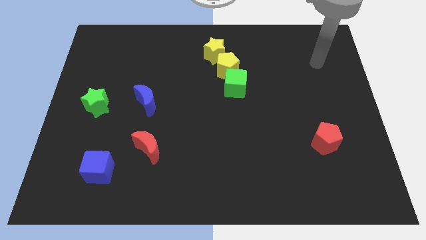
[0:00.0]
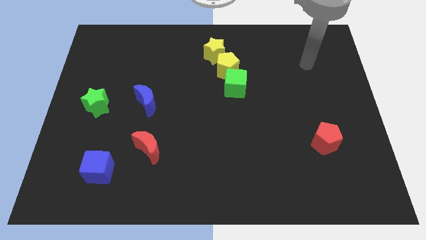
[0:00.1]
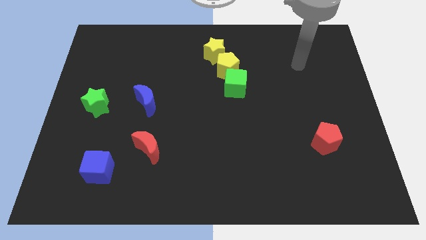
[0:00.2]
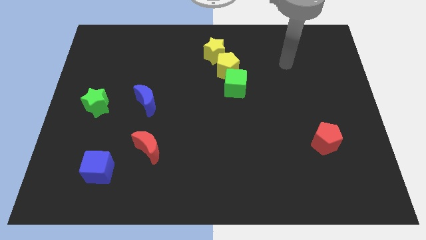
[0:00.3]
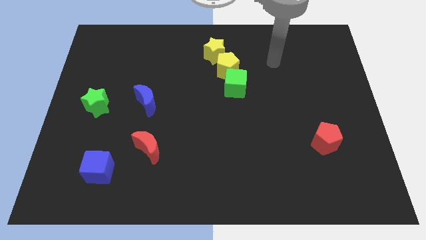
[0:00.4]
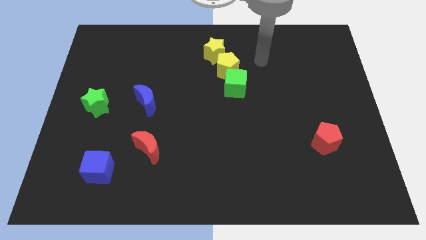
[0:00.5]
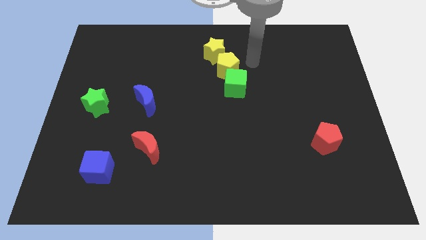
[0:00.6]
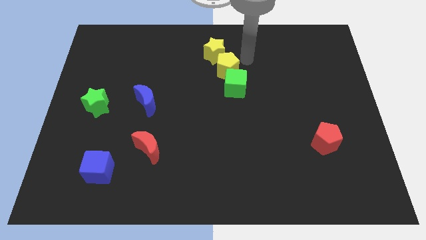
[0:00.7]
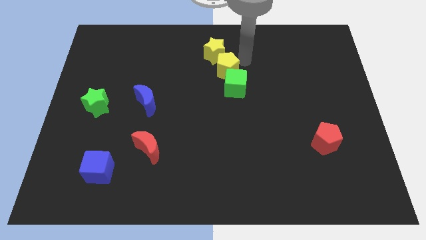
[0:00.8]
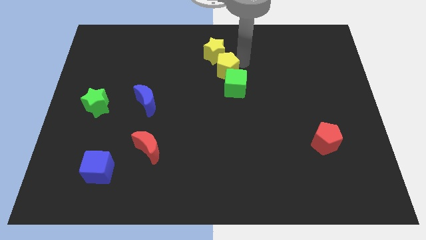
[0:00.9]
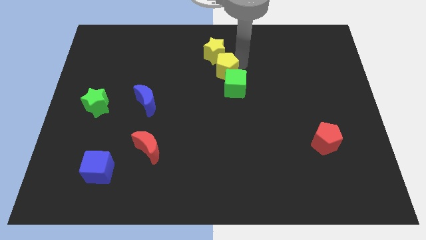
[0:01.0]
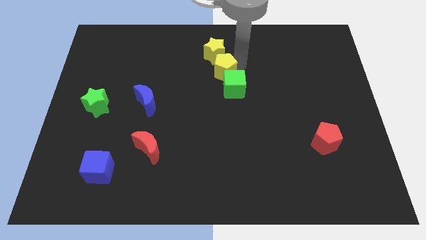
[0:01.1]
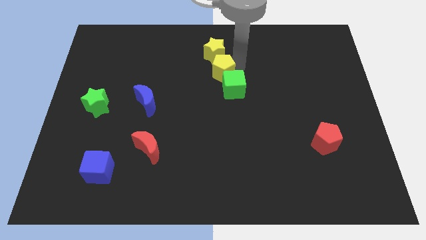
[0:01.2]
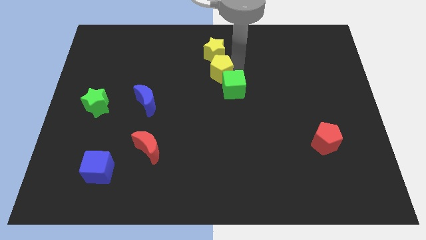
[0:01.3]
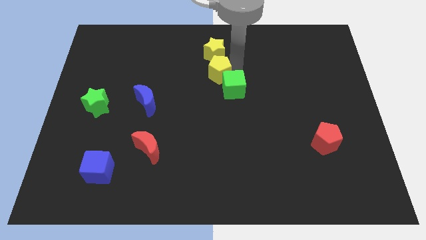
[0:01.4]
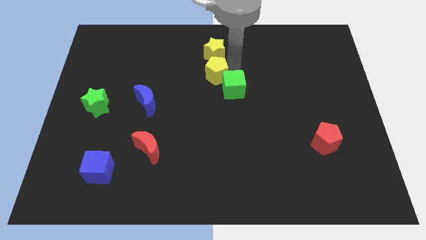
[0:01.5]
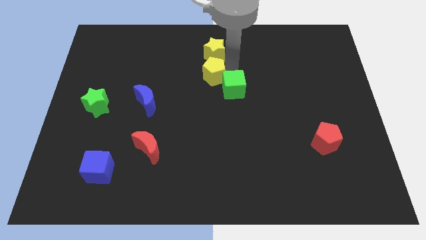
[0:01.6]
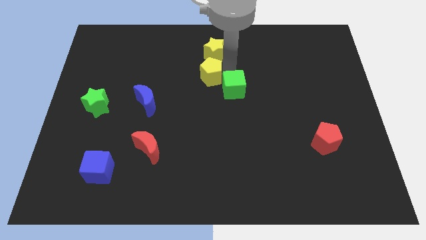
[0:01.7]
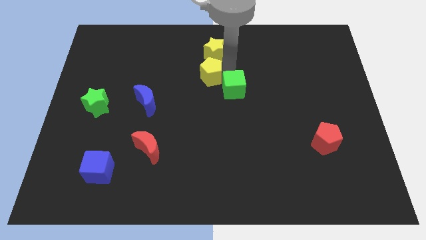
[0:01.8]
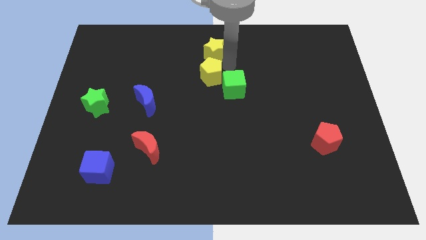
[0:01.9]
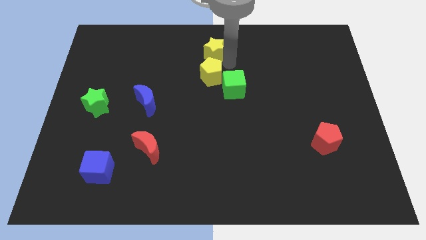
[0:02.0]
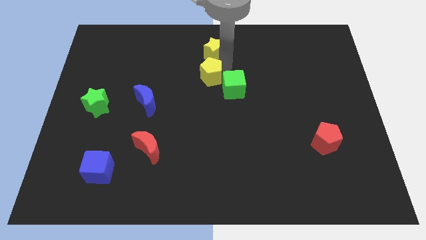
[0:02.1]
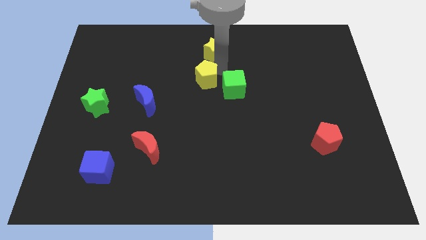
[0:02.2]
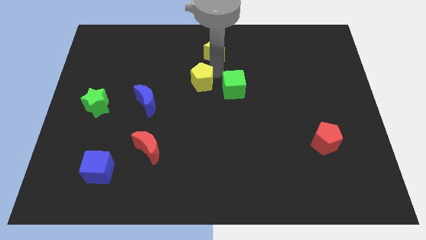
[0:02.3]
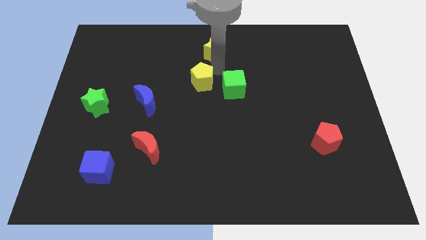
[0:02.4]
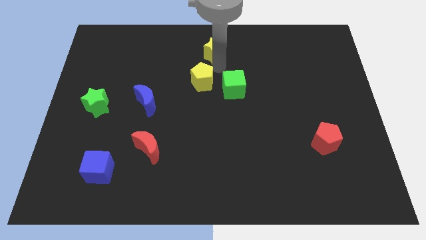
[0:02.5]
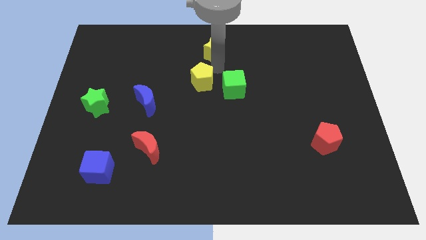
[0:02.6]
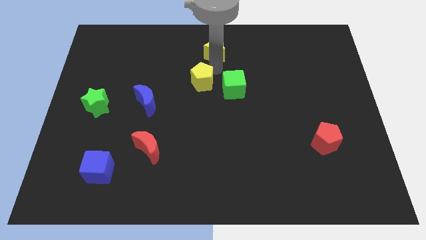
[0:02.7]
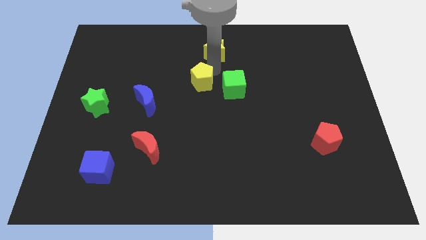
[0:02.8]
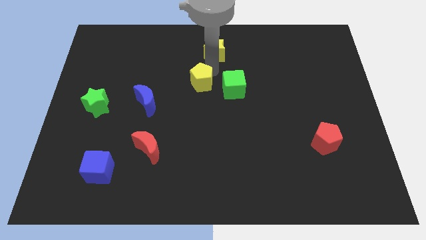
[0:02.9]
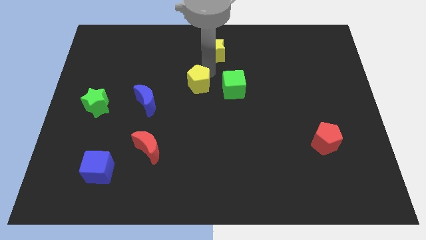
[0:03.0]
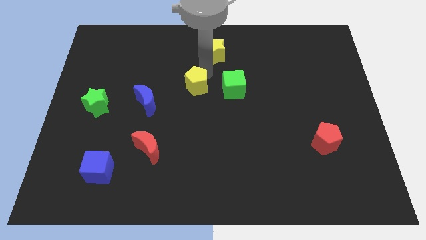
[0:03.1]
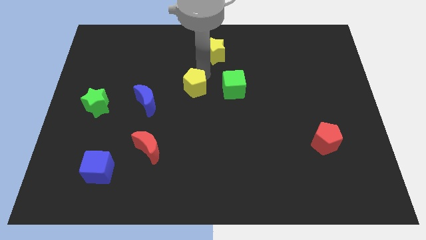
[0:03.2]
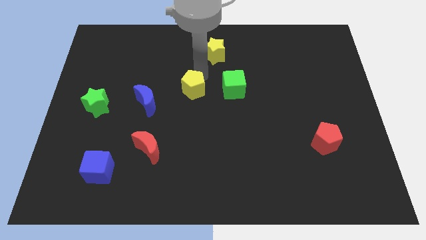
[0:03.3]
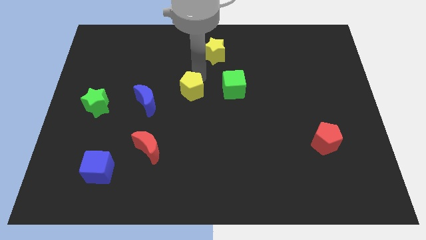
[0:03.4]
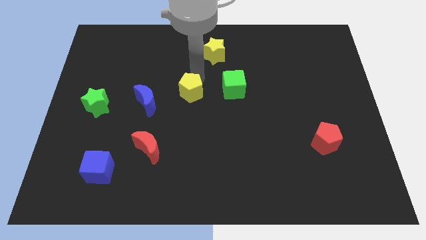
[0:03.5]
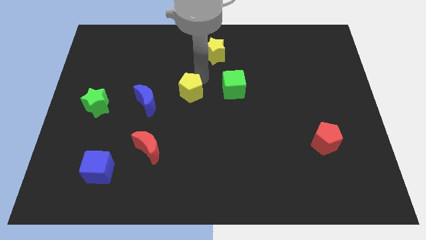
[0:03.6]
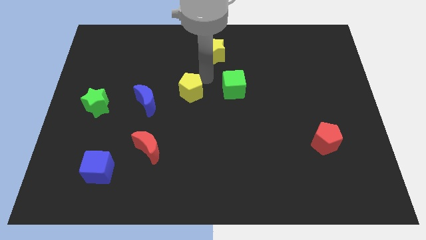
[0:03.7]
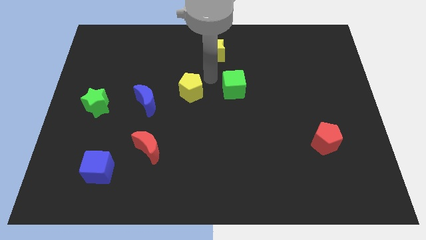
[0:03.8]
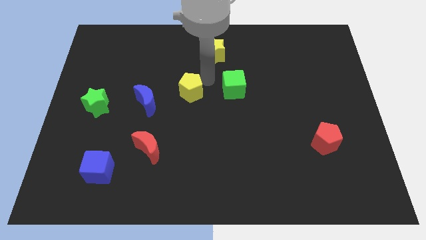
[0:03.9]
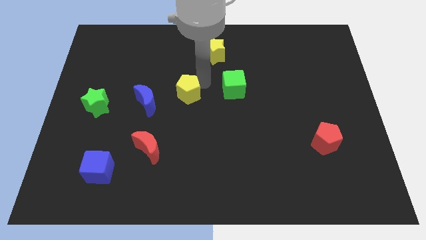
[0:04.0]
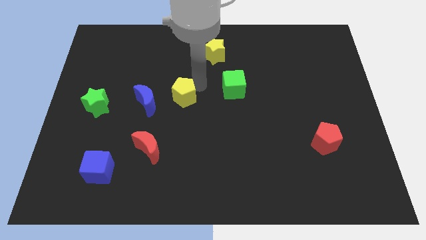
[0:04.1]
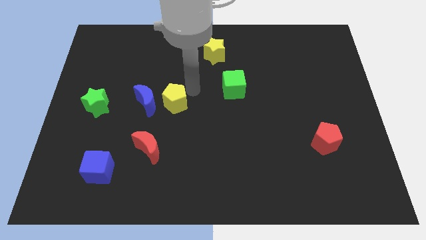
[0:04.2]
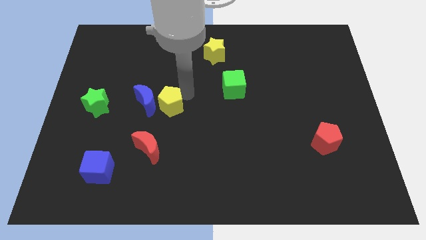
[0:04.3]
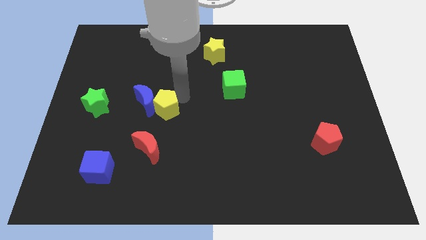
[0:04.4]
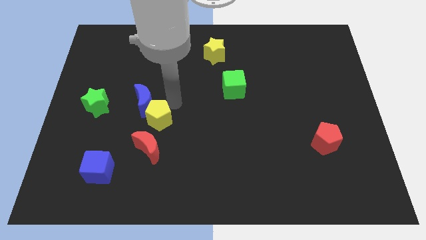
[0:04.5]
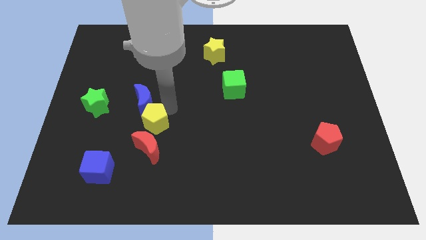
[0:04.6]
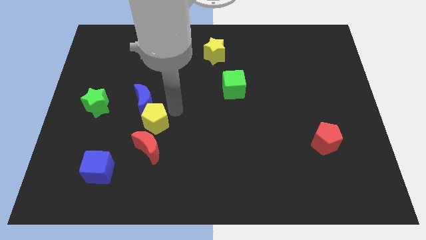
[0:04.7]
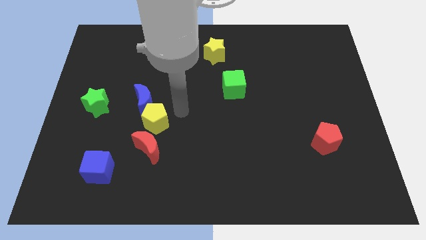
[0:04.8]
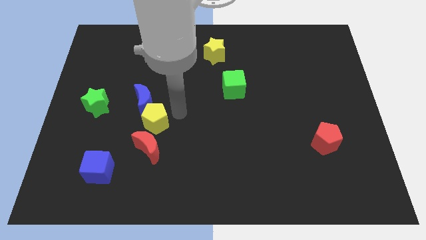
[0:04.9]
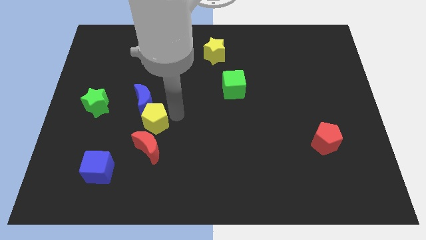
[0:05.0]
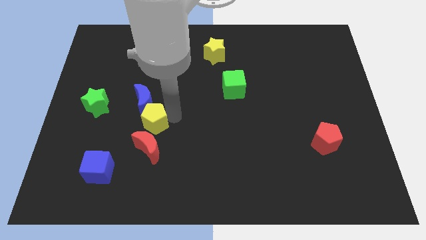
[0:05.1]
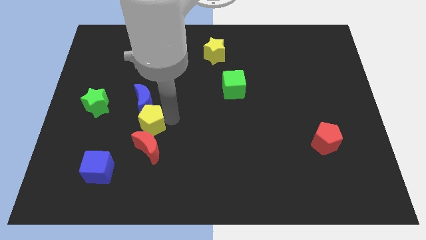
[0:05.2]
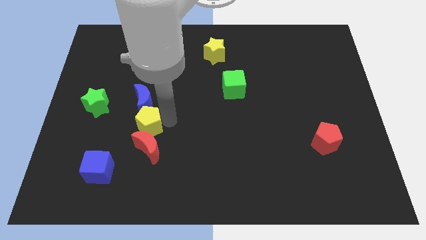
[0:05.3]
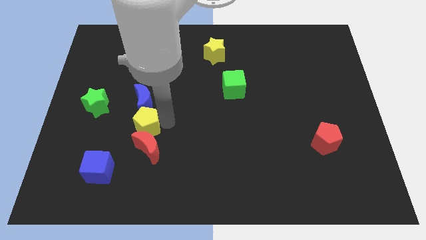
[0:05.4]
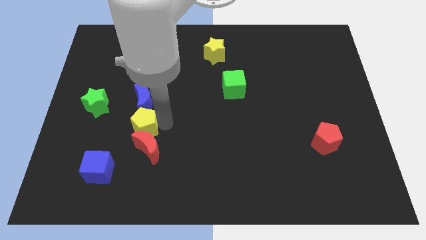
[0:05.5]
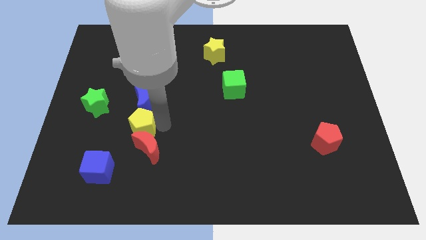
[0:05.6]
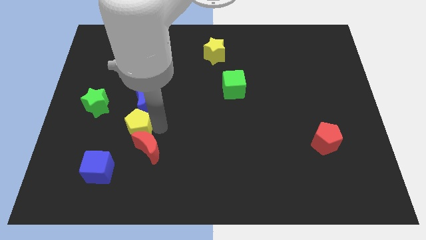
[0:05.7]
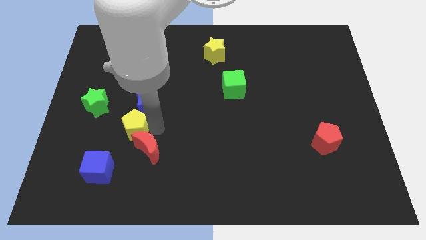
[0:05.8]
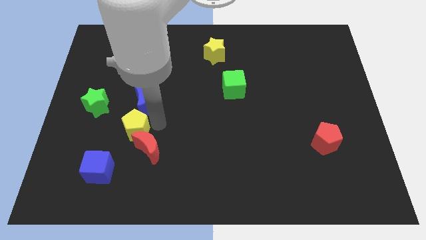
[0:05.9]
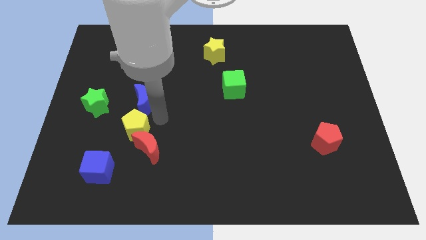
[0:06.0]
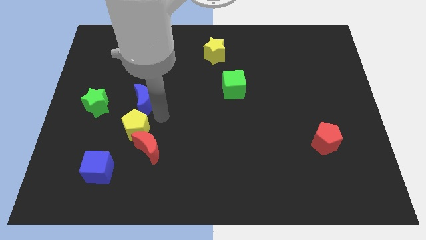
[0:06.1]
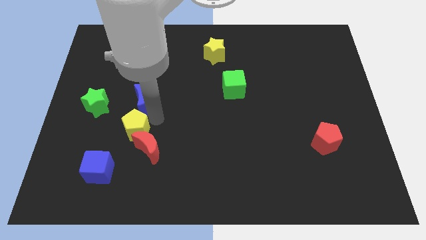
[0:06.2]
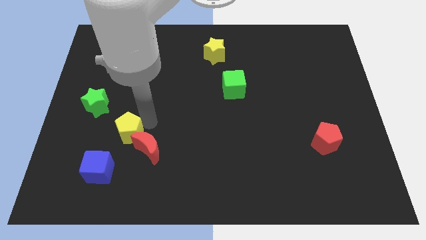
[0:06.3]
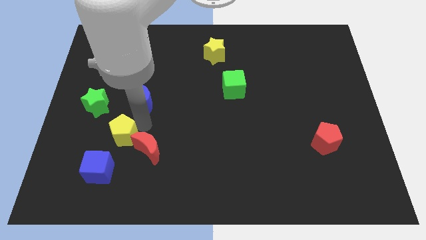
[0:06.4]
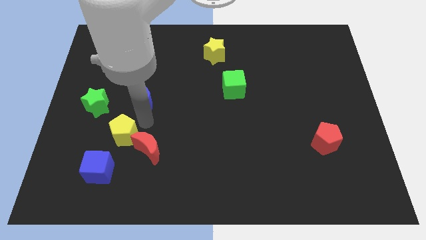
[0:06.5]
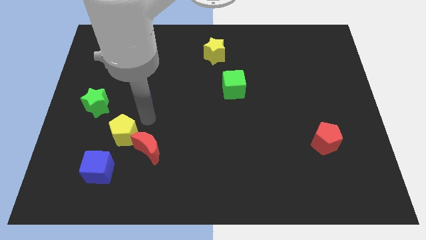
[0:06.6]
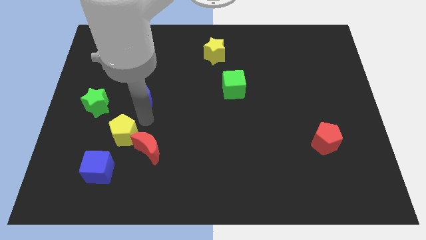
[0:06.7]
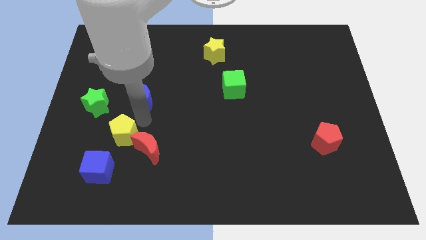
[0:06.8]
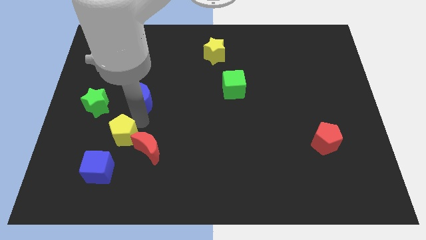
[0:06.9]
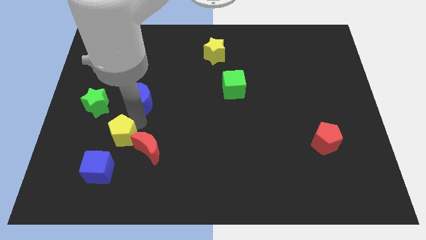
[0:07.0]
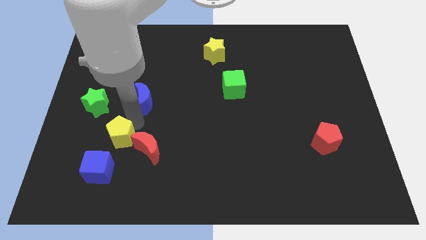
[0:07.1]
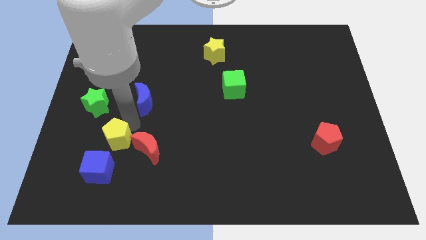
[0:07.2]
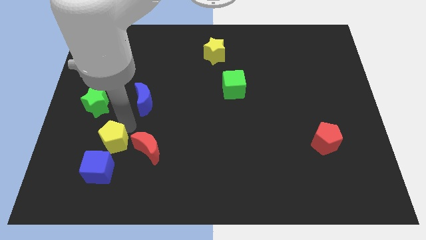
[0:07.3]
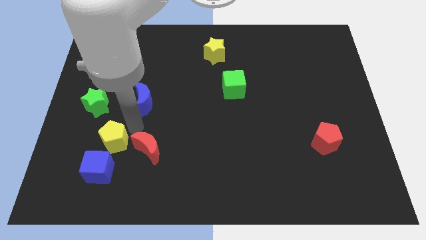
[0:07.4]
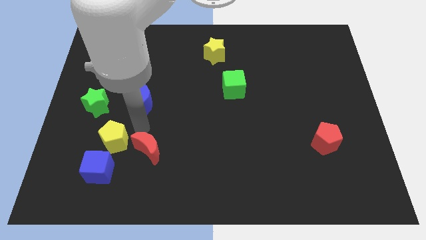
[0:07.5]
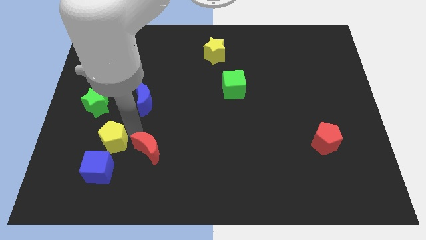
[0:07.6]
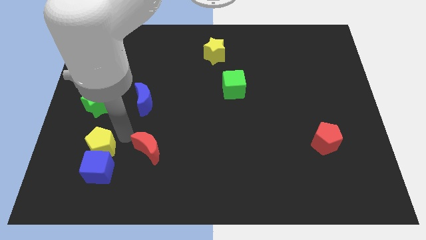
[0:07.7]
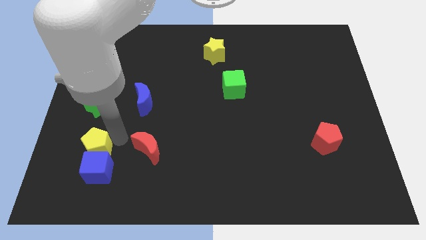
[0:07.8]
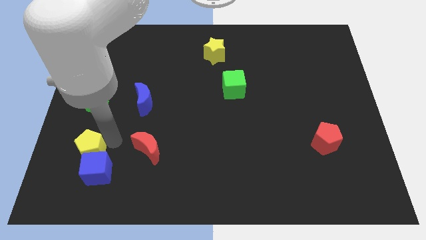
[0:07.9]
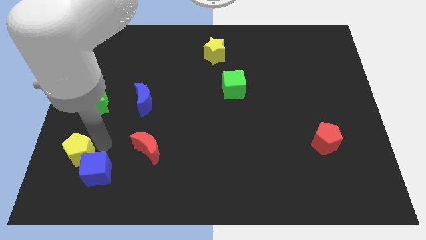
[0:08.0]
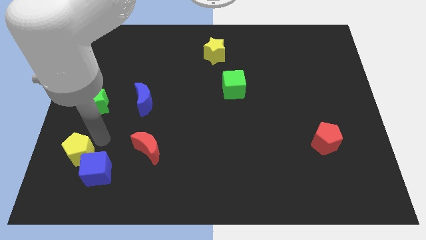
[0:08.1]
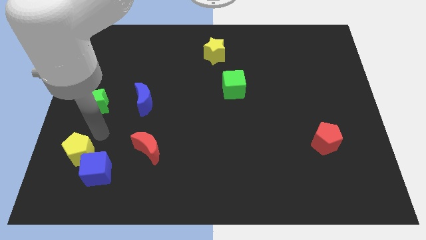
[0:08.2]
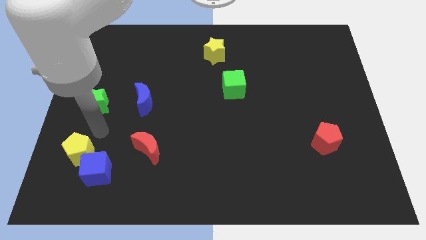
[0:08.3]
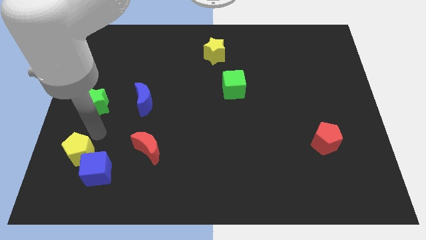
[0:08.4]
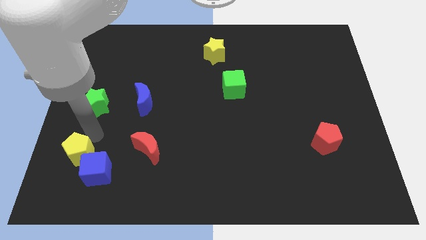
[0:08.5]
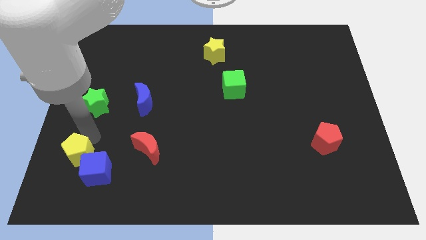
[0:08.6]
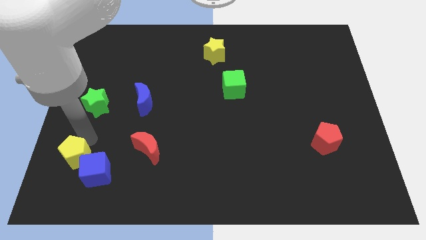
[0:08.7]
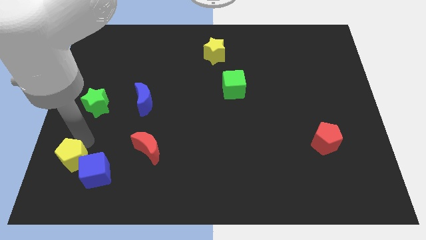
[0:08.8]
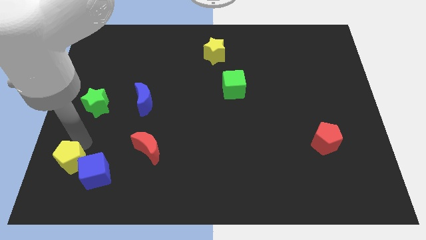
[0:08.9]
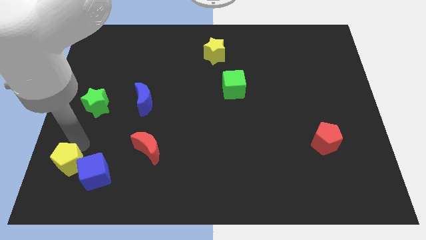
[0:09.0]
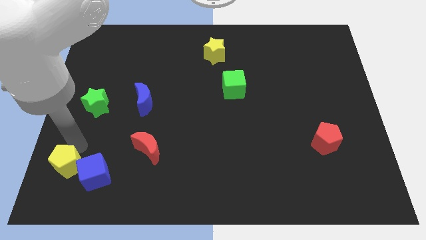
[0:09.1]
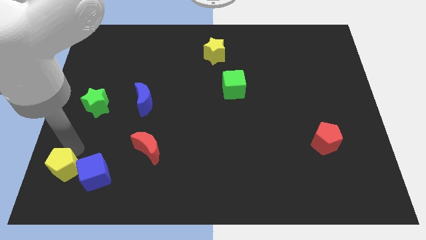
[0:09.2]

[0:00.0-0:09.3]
move the yellow pentagon to the bottom left of the board
